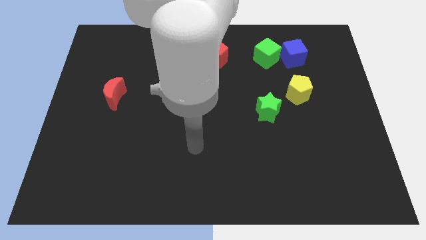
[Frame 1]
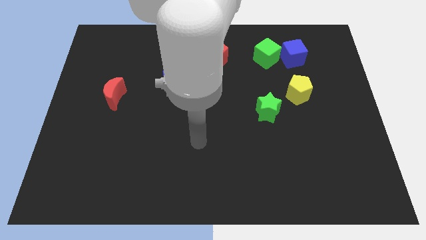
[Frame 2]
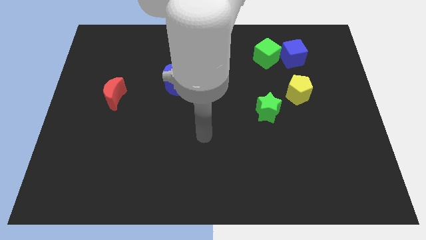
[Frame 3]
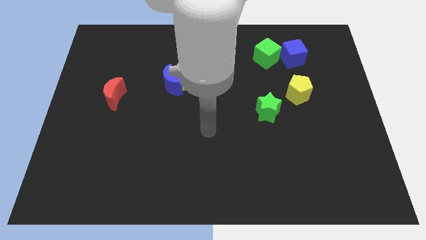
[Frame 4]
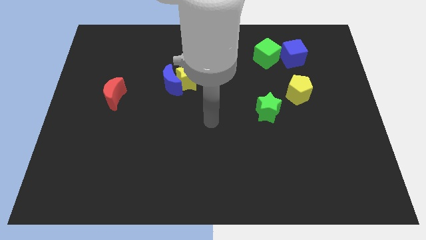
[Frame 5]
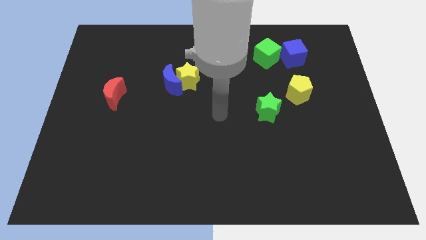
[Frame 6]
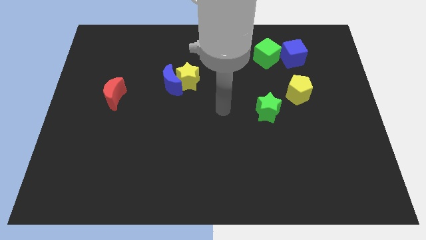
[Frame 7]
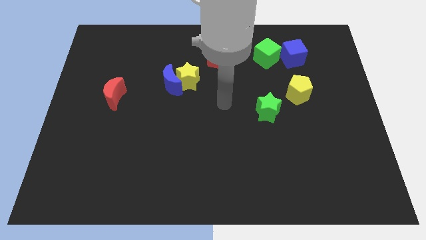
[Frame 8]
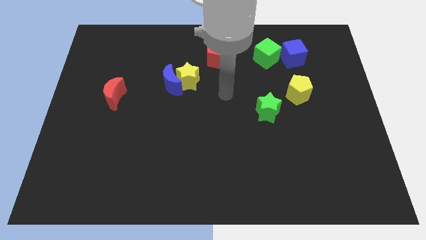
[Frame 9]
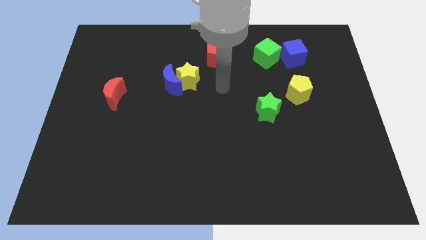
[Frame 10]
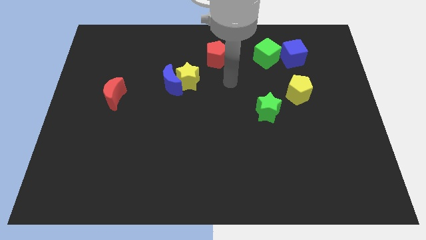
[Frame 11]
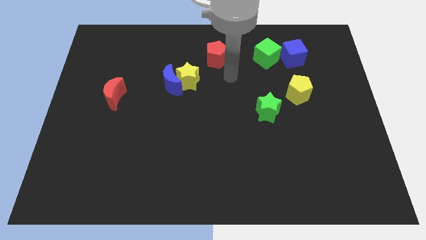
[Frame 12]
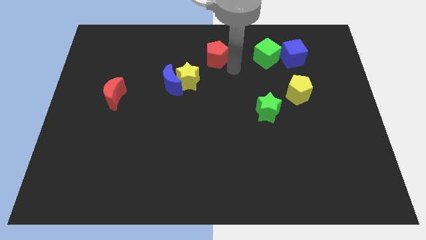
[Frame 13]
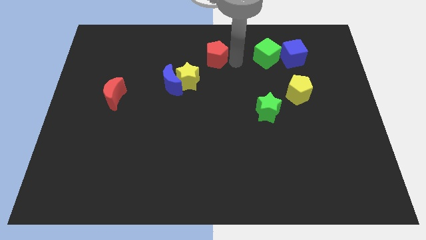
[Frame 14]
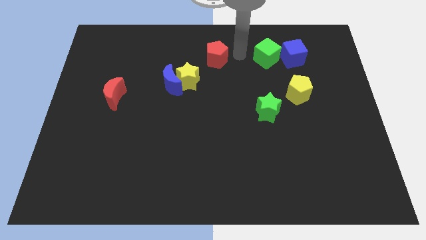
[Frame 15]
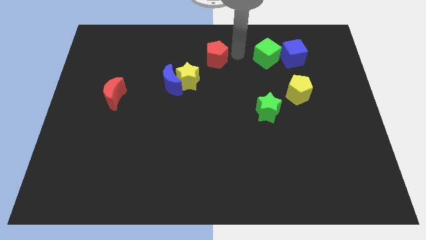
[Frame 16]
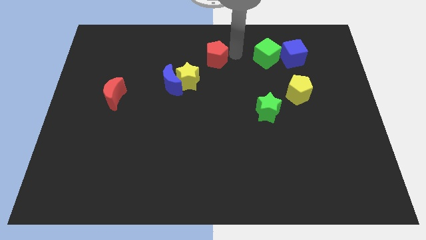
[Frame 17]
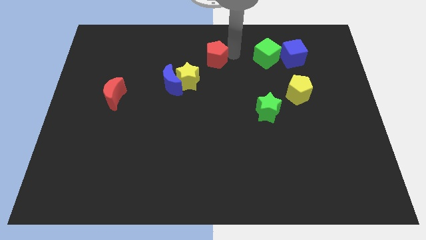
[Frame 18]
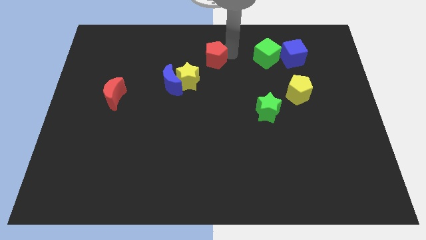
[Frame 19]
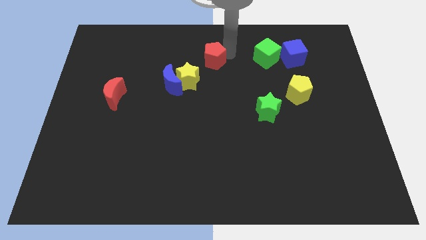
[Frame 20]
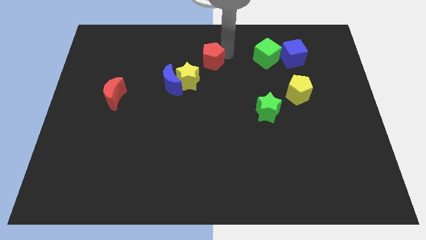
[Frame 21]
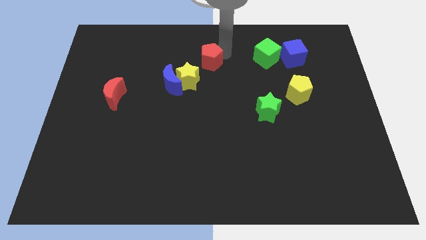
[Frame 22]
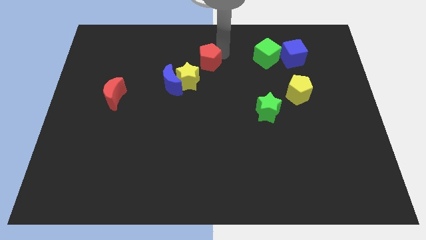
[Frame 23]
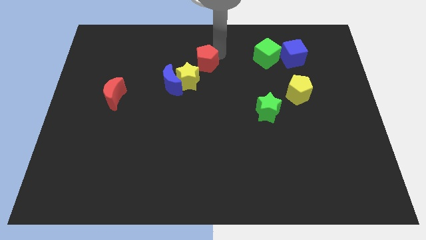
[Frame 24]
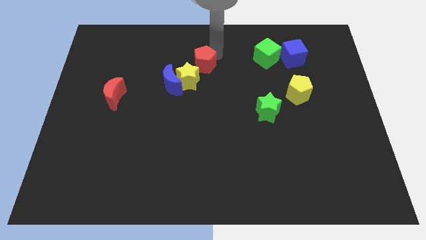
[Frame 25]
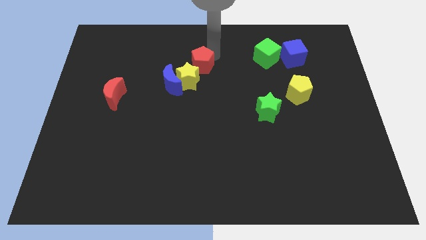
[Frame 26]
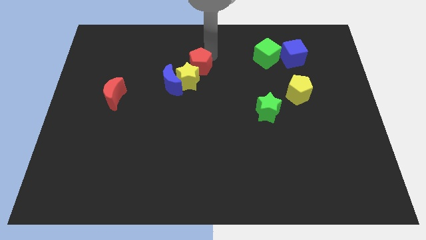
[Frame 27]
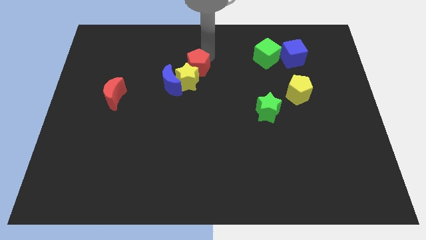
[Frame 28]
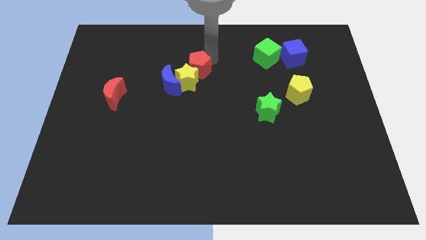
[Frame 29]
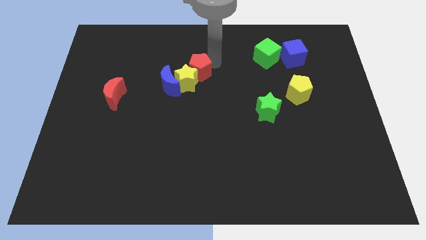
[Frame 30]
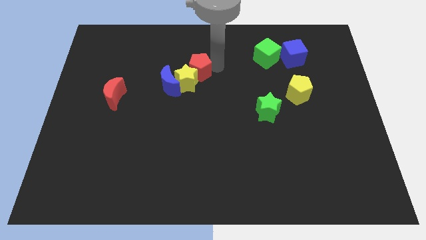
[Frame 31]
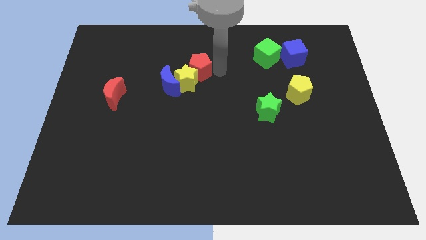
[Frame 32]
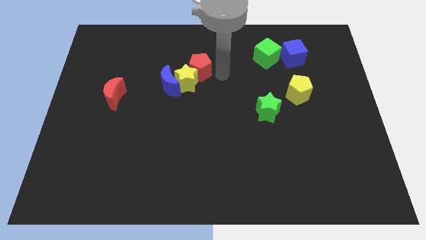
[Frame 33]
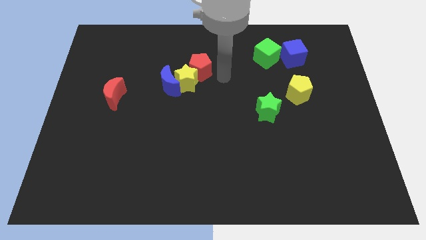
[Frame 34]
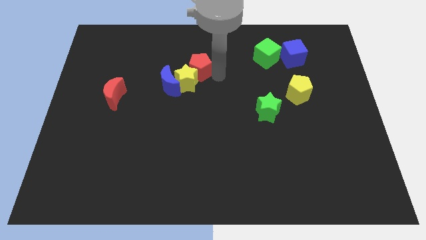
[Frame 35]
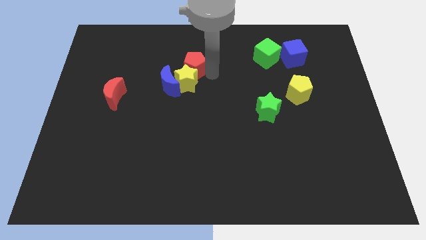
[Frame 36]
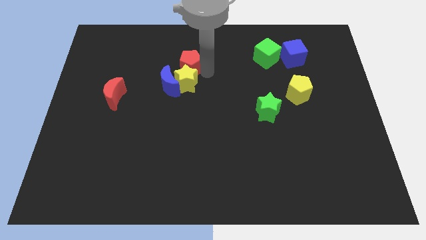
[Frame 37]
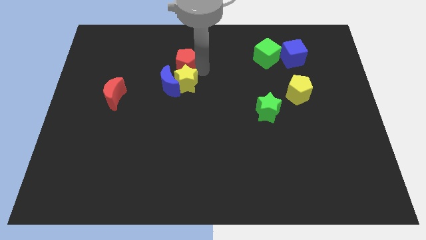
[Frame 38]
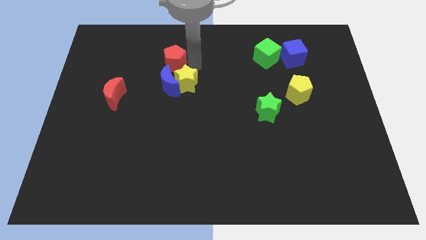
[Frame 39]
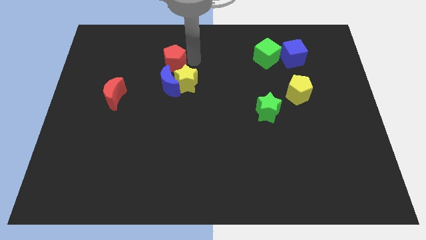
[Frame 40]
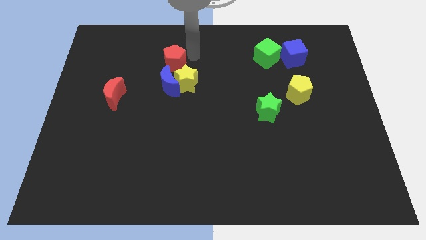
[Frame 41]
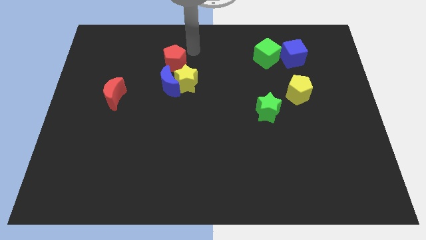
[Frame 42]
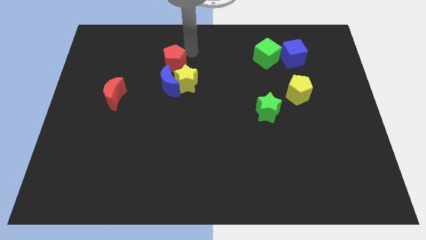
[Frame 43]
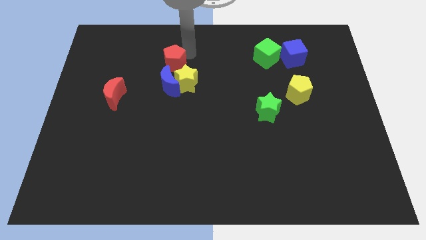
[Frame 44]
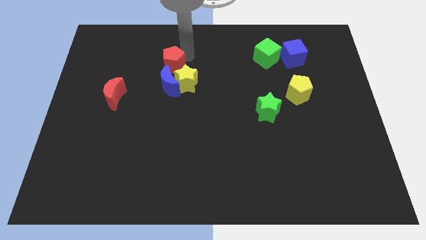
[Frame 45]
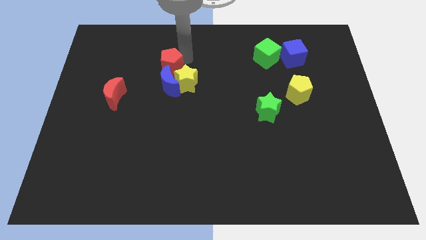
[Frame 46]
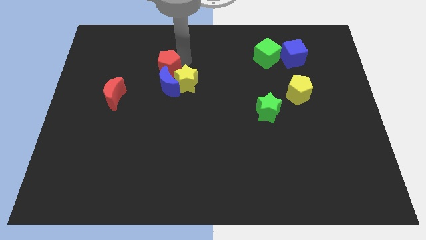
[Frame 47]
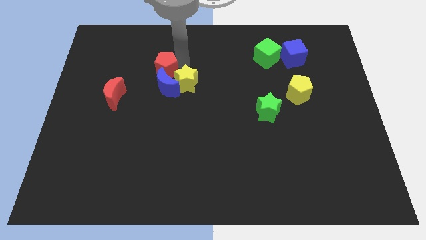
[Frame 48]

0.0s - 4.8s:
move the red pentagon to the left of the yellow star

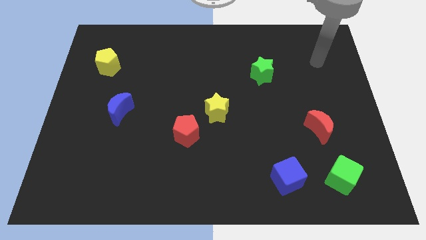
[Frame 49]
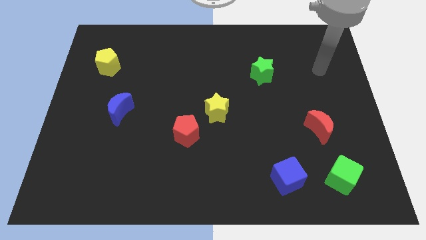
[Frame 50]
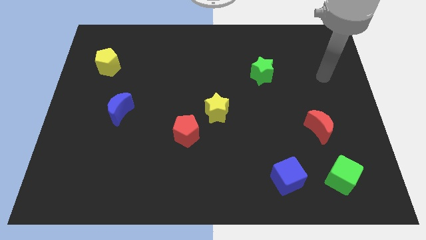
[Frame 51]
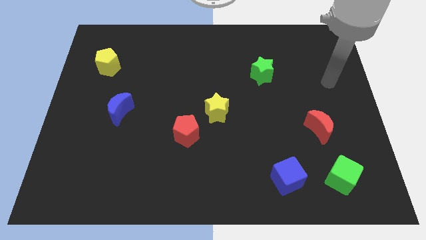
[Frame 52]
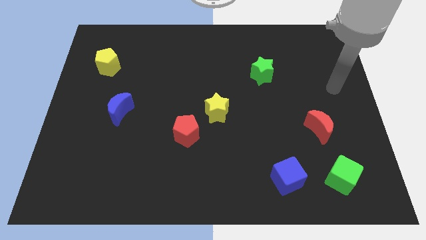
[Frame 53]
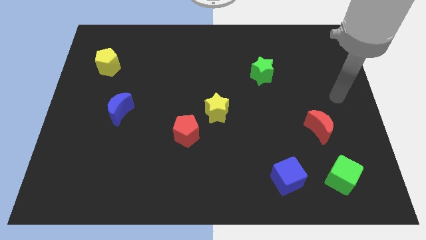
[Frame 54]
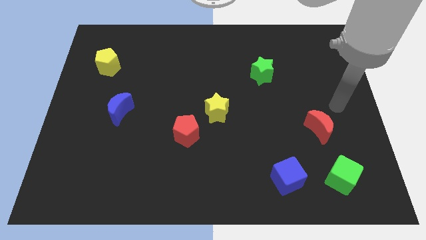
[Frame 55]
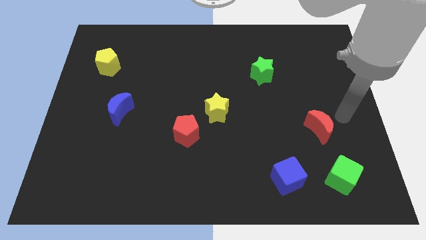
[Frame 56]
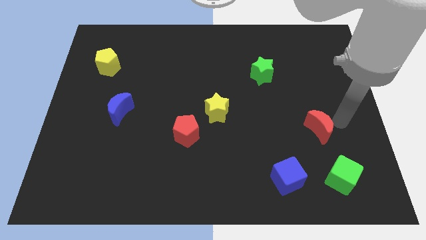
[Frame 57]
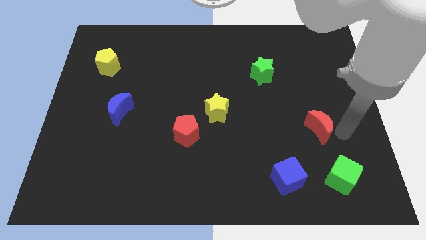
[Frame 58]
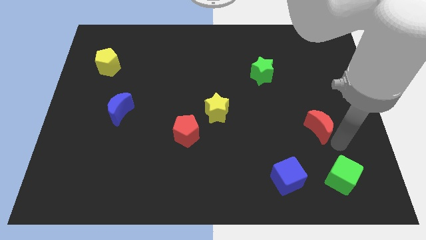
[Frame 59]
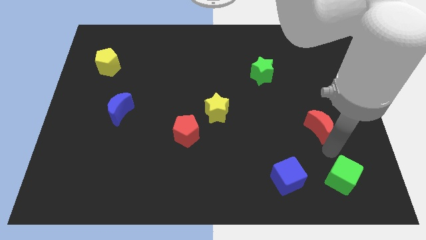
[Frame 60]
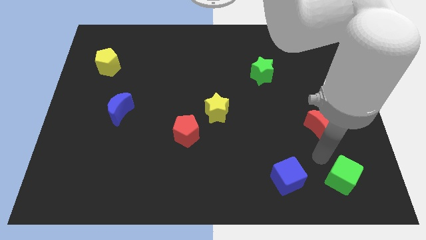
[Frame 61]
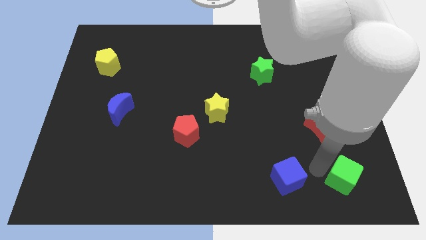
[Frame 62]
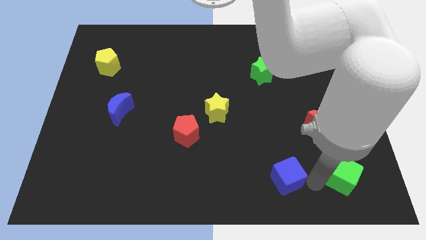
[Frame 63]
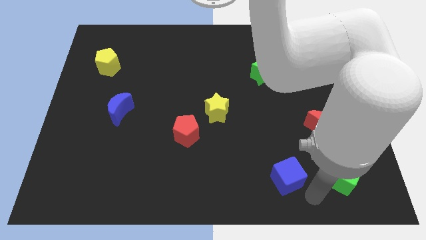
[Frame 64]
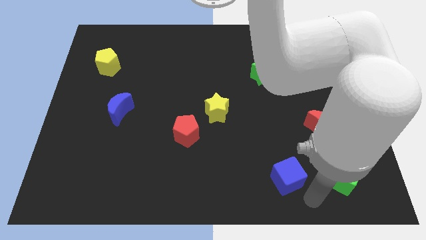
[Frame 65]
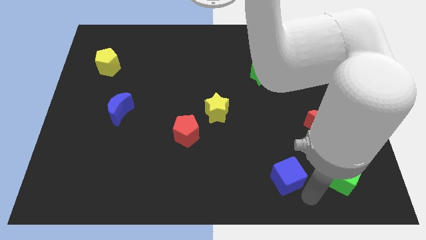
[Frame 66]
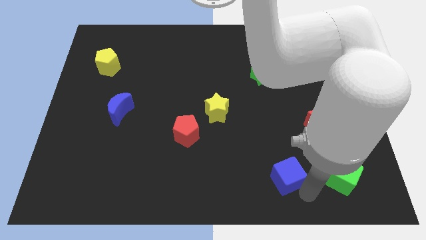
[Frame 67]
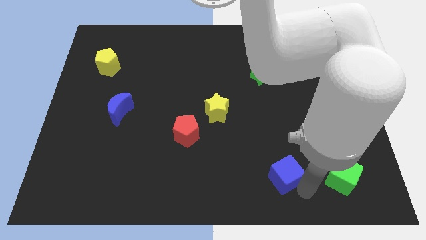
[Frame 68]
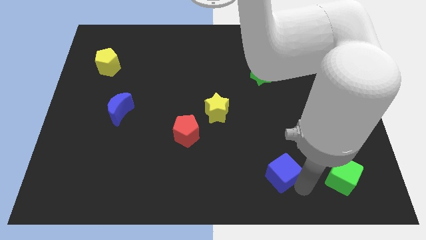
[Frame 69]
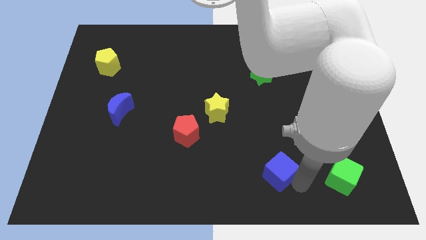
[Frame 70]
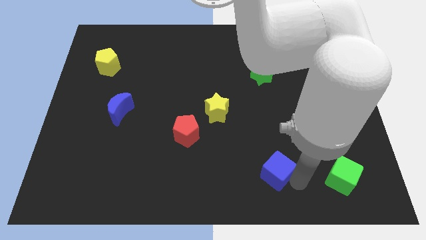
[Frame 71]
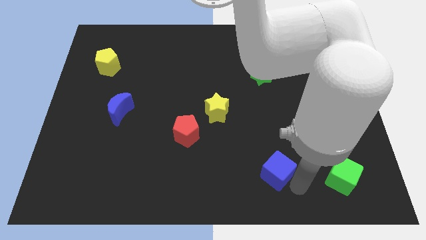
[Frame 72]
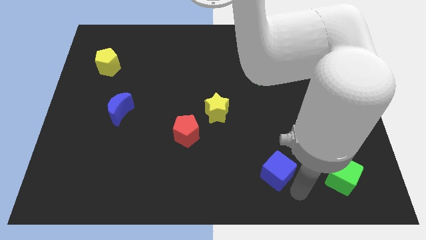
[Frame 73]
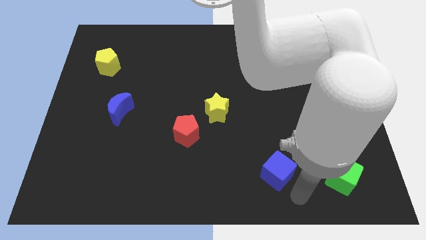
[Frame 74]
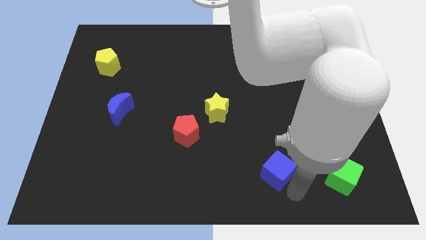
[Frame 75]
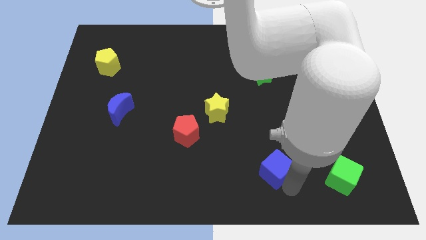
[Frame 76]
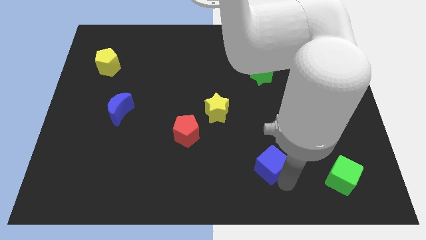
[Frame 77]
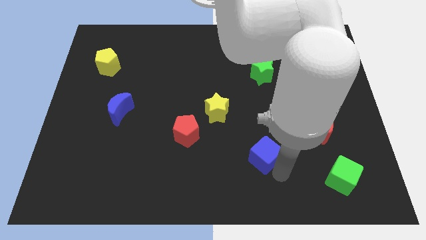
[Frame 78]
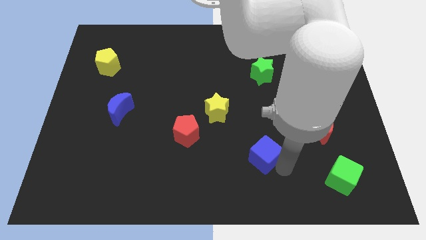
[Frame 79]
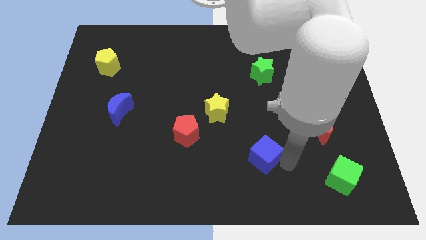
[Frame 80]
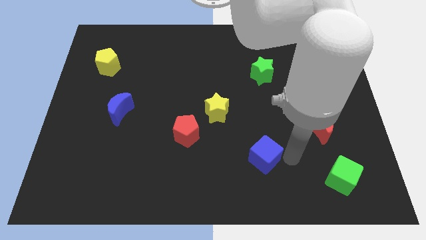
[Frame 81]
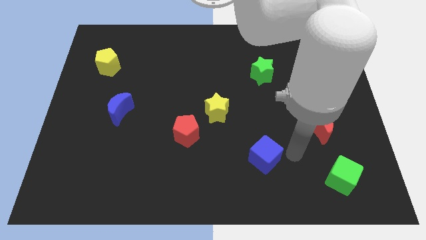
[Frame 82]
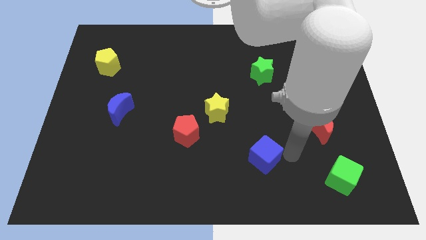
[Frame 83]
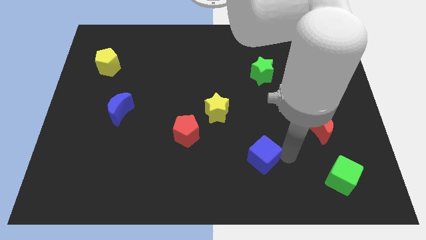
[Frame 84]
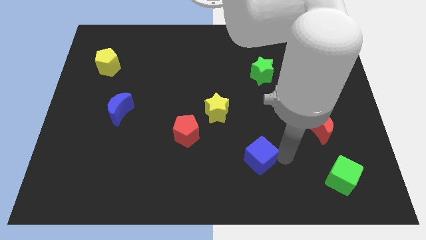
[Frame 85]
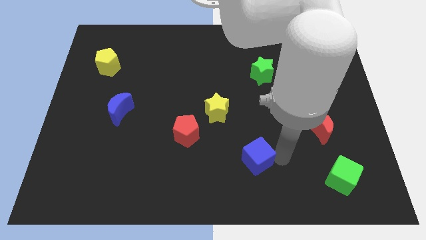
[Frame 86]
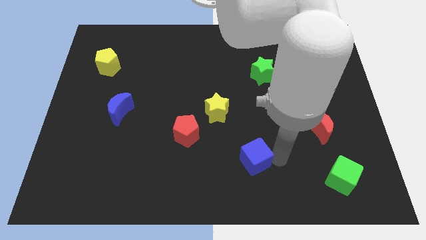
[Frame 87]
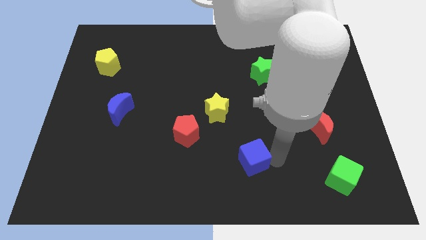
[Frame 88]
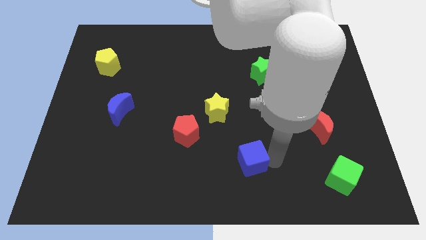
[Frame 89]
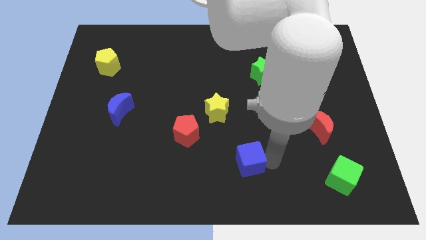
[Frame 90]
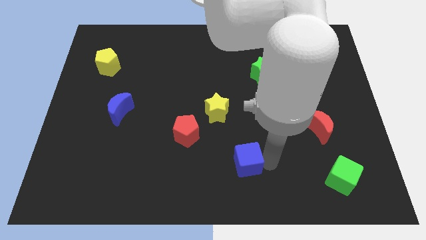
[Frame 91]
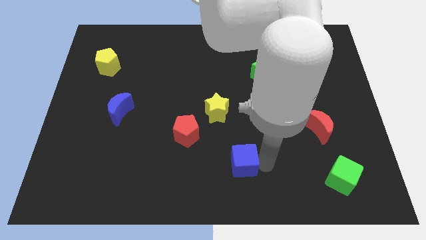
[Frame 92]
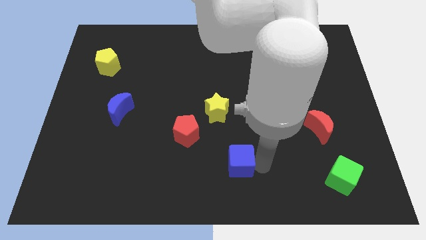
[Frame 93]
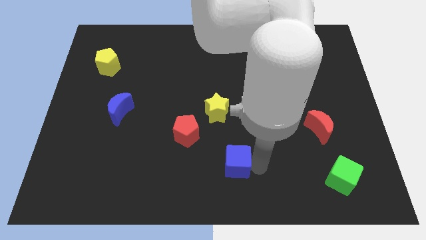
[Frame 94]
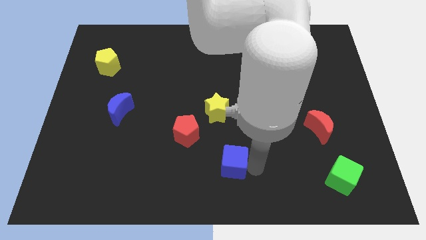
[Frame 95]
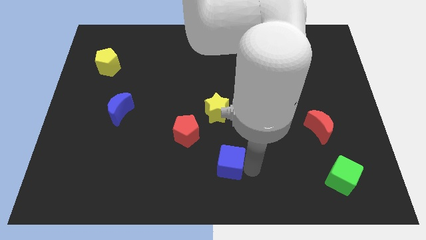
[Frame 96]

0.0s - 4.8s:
push the blue cube to the bottom right of the red pentagon
